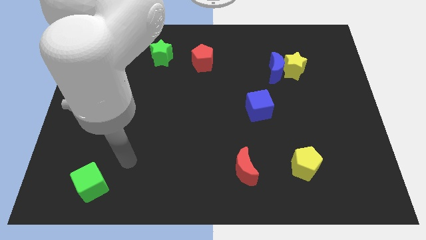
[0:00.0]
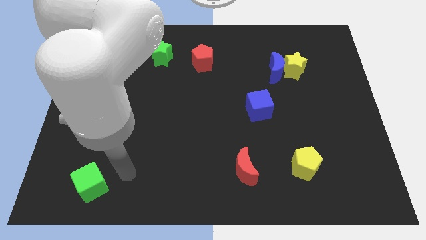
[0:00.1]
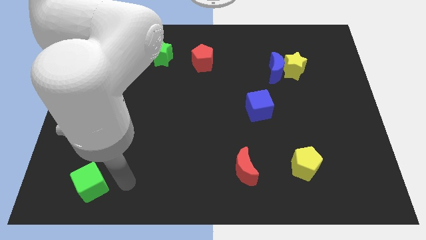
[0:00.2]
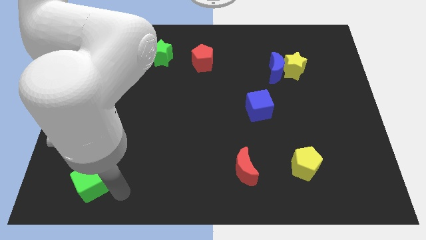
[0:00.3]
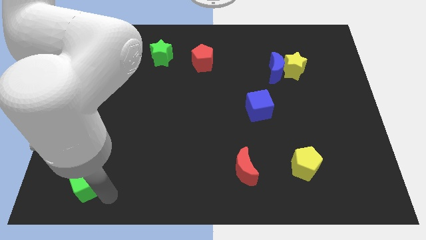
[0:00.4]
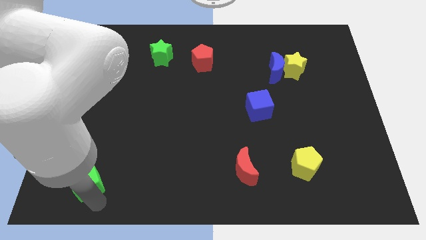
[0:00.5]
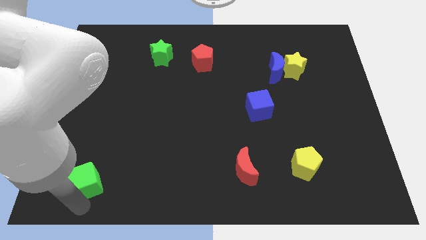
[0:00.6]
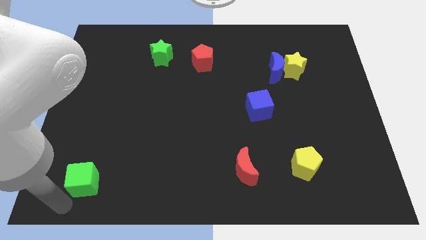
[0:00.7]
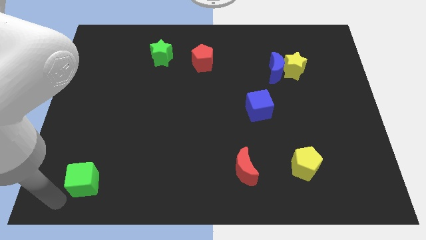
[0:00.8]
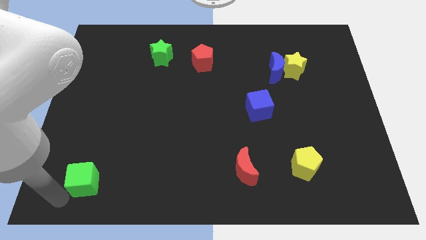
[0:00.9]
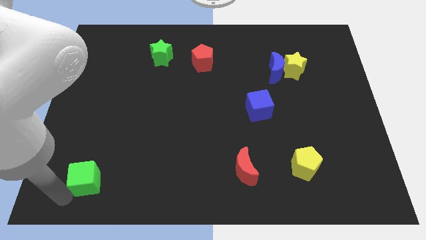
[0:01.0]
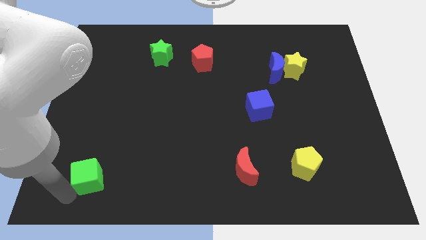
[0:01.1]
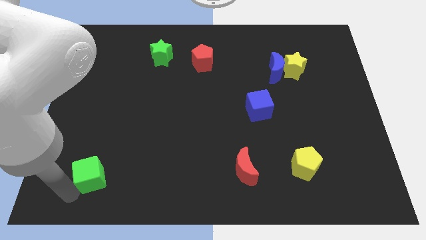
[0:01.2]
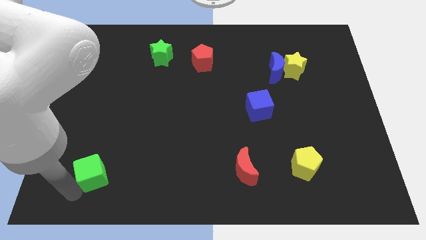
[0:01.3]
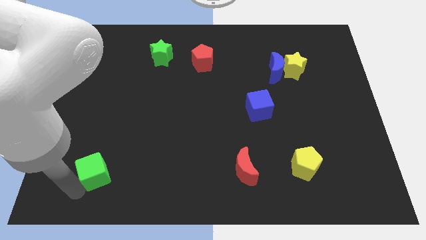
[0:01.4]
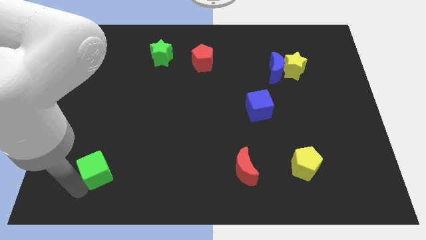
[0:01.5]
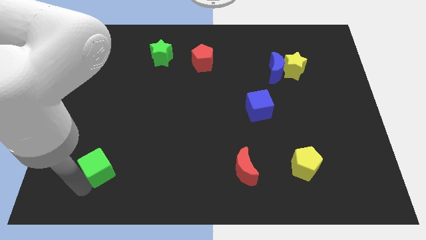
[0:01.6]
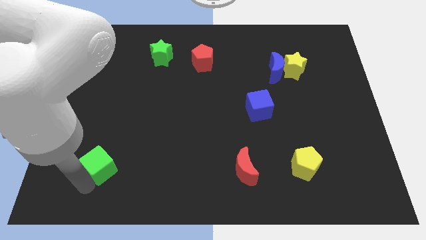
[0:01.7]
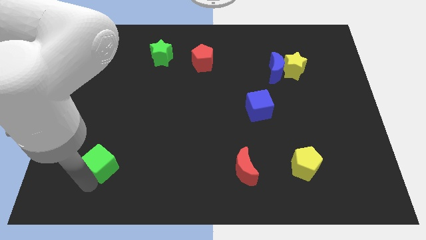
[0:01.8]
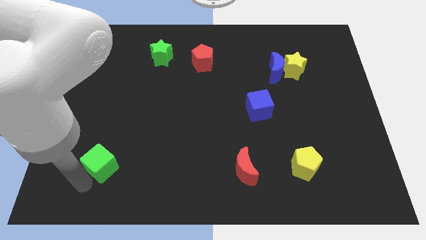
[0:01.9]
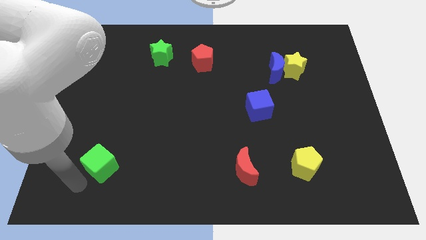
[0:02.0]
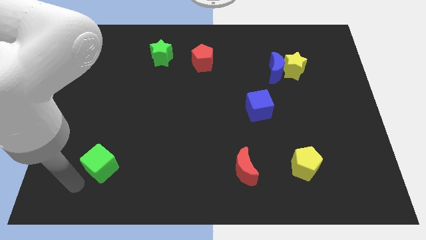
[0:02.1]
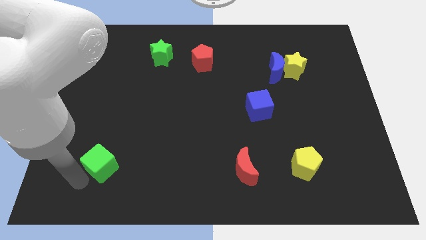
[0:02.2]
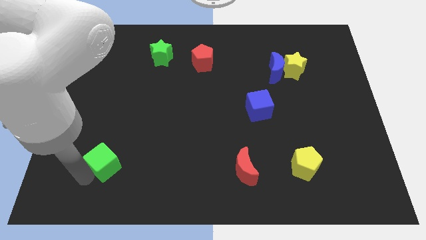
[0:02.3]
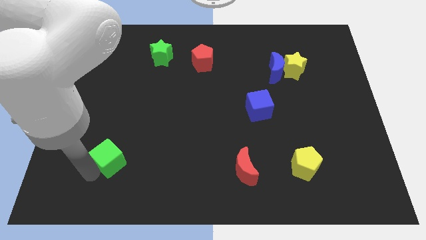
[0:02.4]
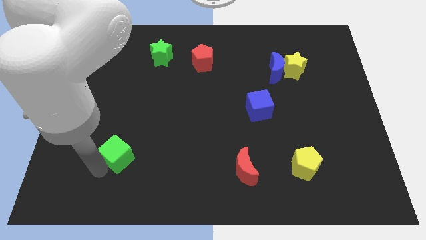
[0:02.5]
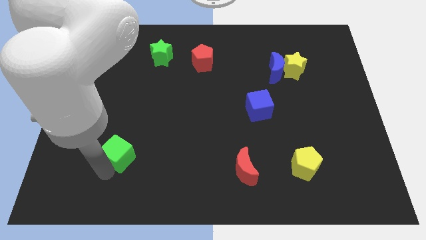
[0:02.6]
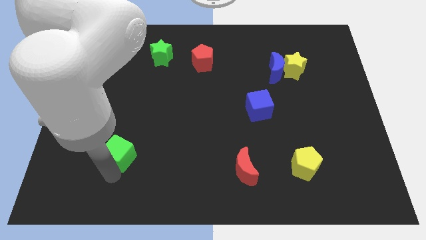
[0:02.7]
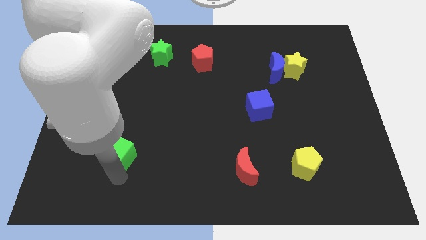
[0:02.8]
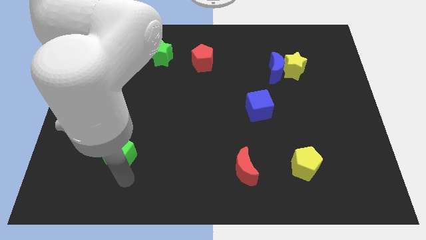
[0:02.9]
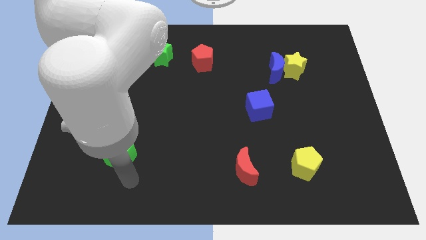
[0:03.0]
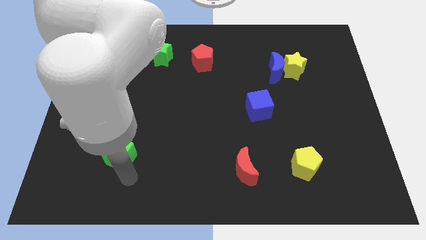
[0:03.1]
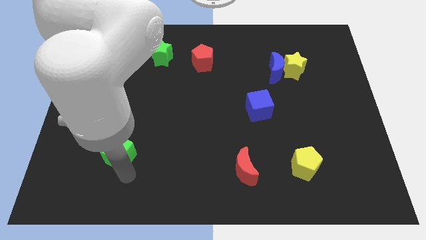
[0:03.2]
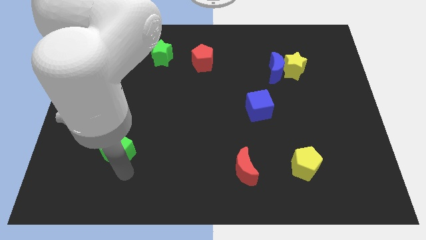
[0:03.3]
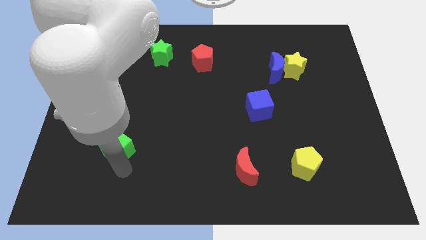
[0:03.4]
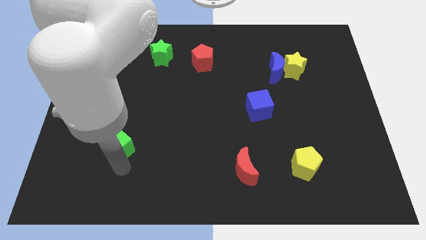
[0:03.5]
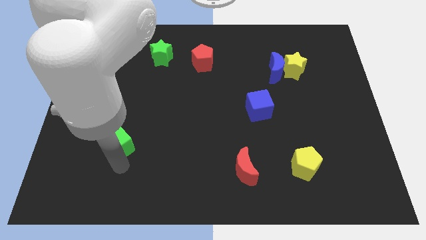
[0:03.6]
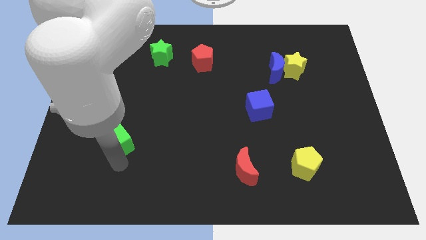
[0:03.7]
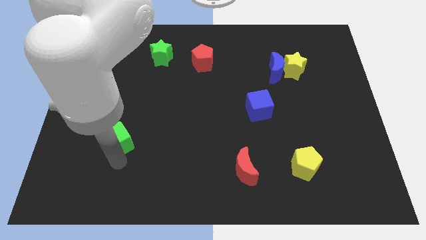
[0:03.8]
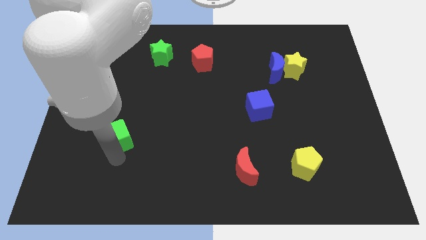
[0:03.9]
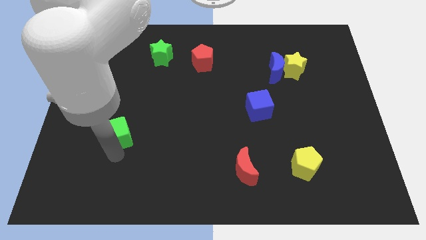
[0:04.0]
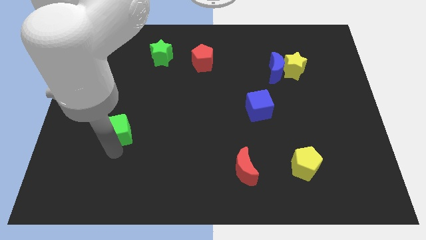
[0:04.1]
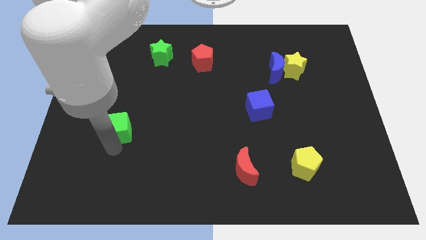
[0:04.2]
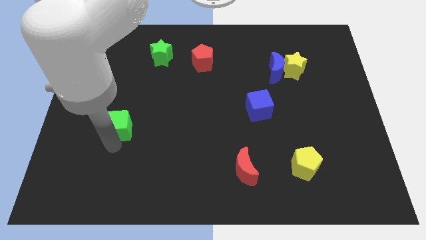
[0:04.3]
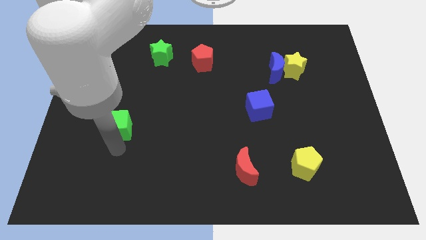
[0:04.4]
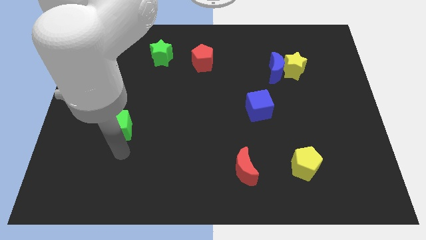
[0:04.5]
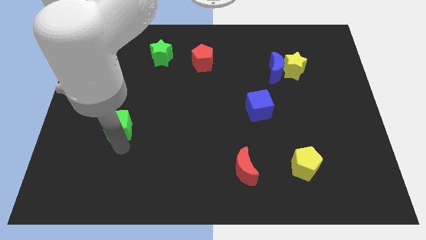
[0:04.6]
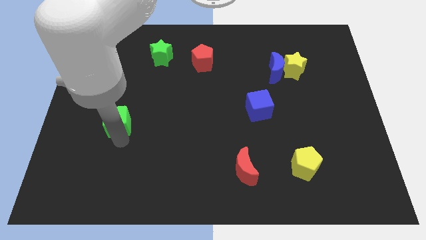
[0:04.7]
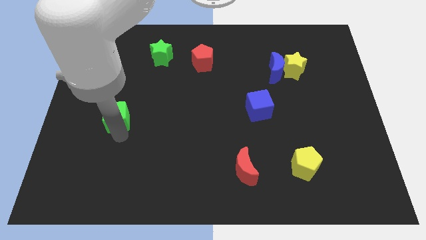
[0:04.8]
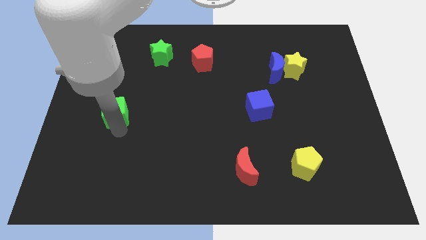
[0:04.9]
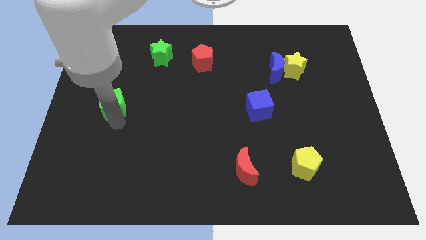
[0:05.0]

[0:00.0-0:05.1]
push the green cube upwards

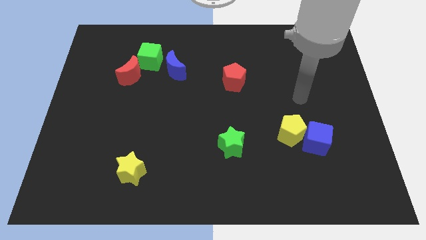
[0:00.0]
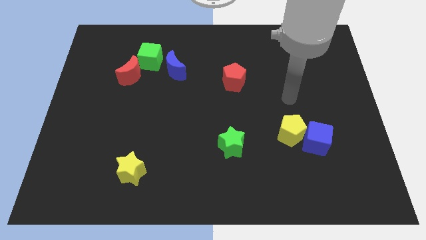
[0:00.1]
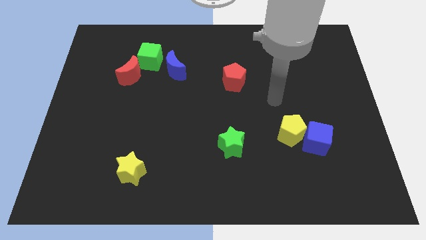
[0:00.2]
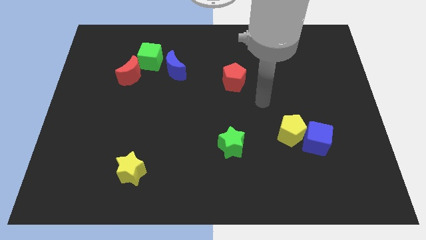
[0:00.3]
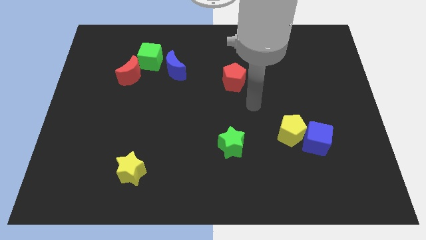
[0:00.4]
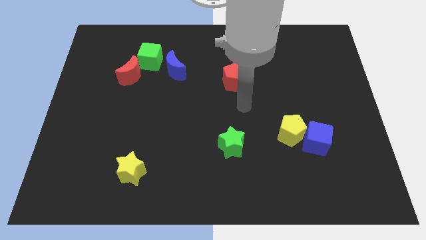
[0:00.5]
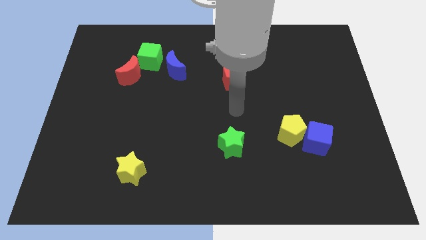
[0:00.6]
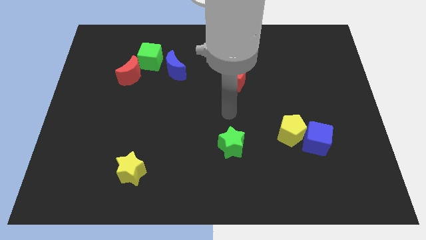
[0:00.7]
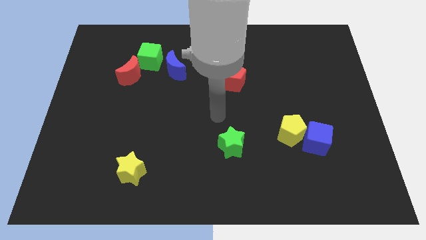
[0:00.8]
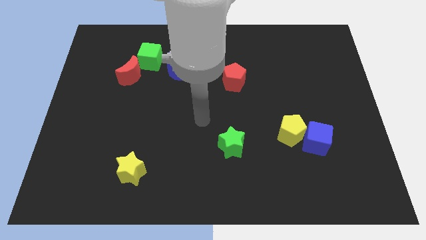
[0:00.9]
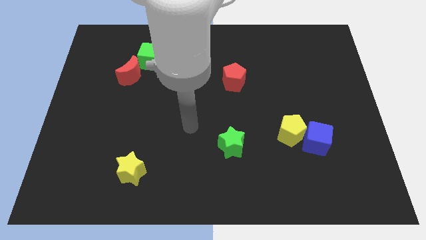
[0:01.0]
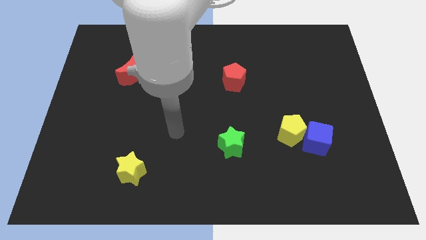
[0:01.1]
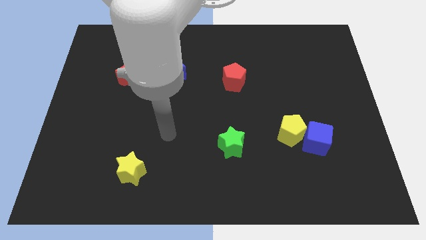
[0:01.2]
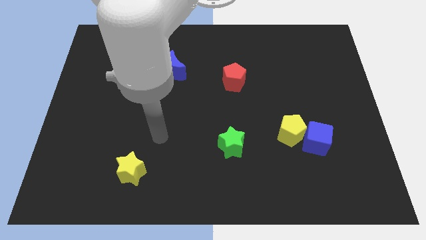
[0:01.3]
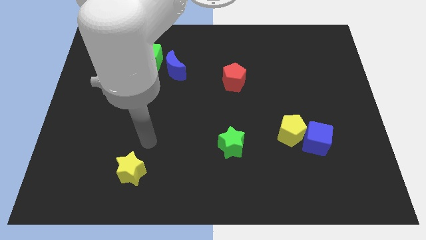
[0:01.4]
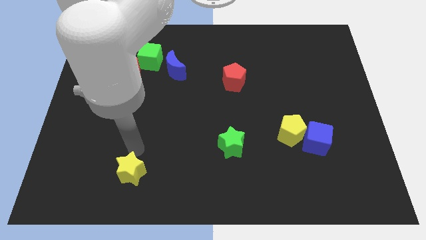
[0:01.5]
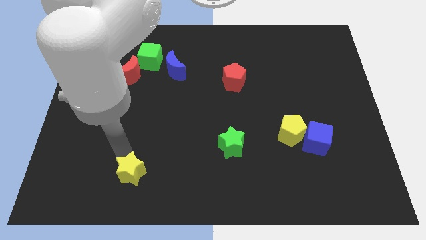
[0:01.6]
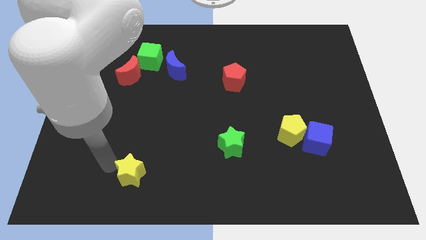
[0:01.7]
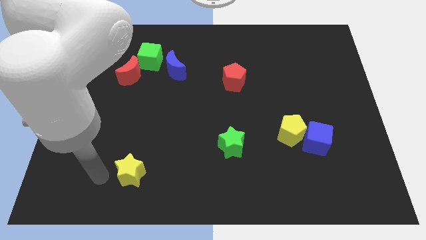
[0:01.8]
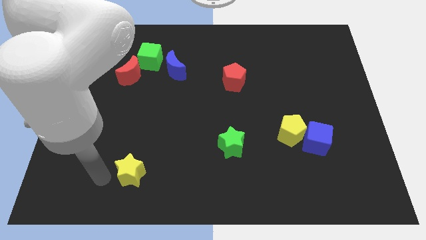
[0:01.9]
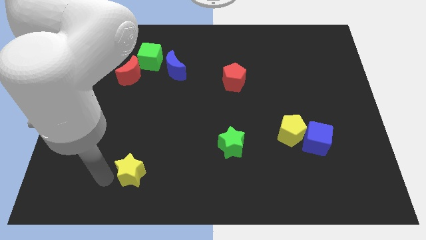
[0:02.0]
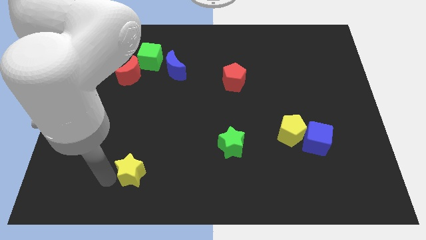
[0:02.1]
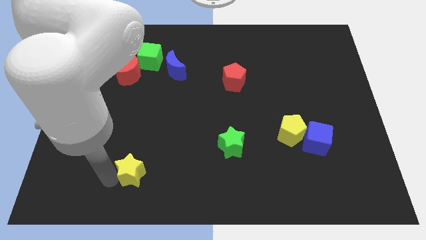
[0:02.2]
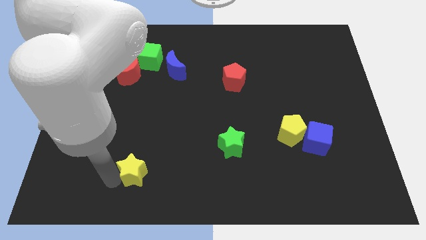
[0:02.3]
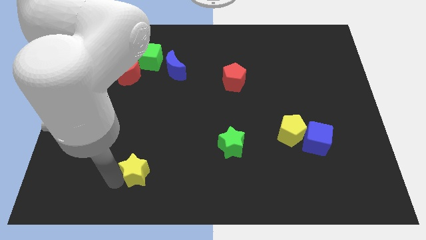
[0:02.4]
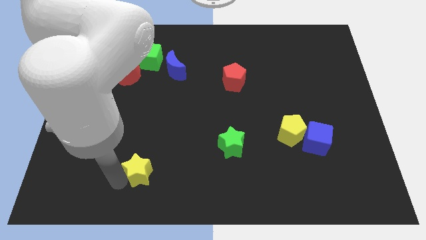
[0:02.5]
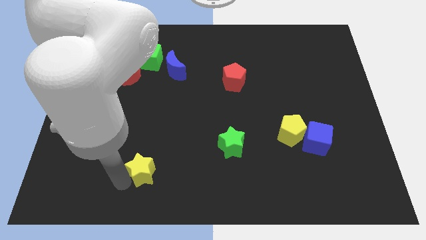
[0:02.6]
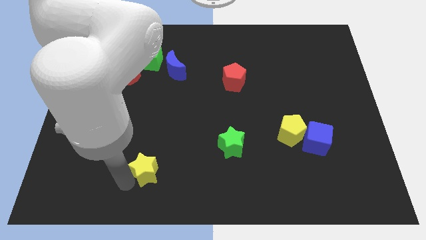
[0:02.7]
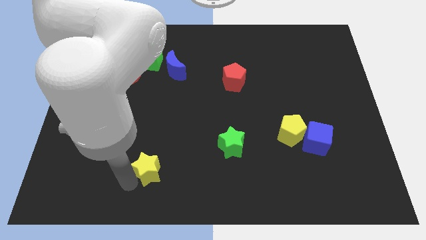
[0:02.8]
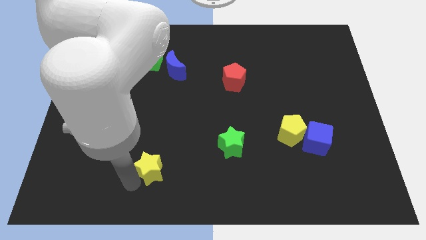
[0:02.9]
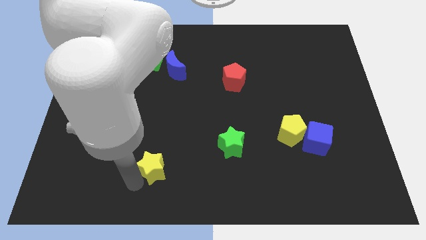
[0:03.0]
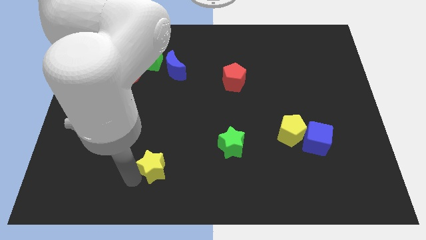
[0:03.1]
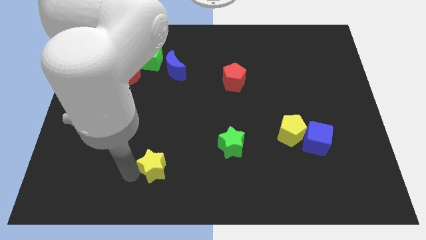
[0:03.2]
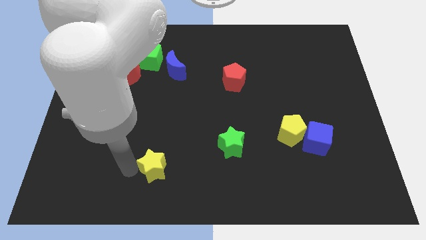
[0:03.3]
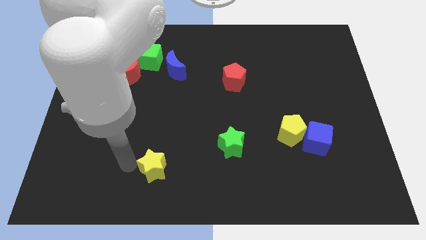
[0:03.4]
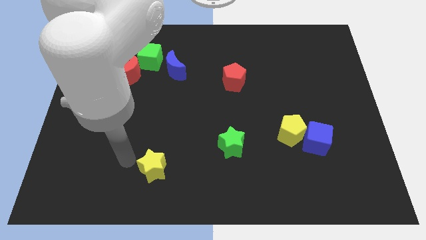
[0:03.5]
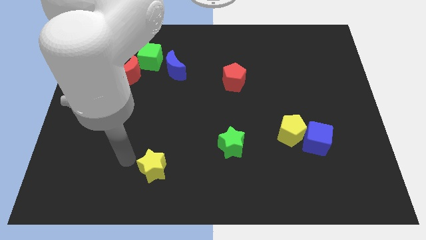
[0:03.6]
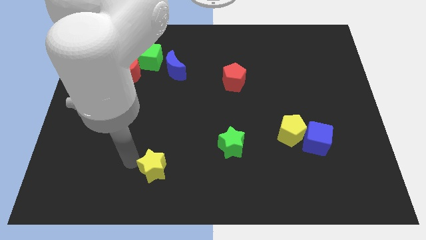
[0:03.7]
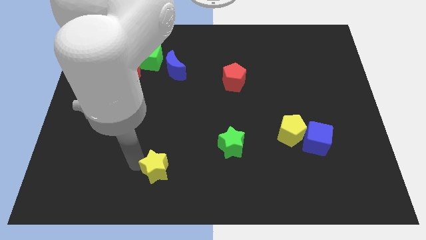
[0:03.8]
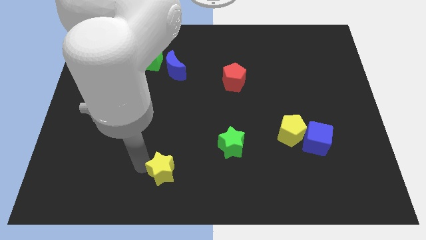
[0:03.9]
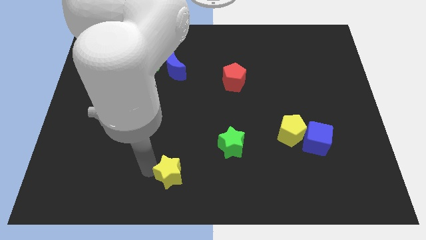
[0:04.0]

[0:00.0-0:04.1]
slightly move the yellow star to the right
